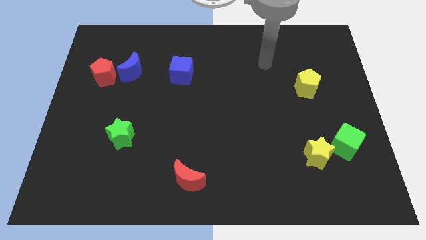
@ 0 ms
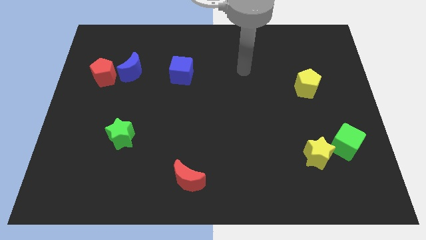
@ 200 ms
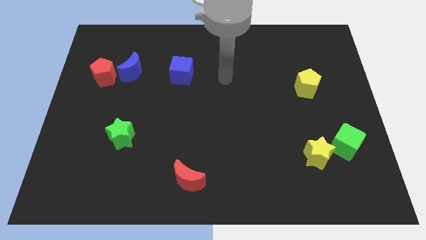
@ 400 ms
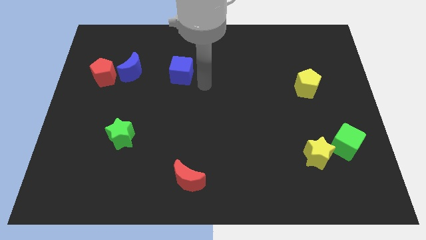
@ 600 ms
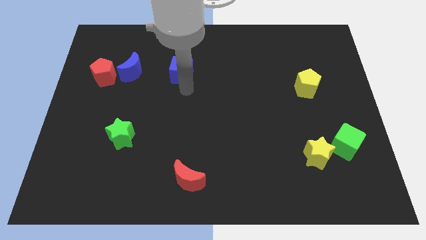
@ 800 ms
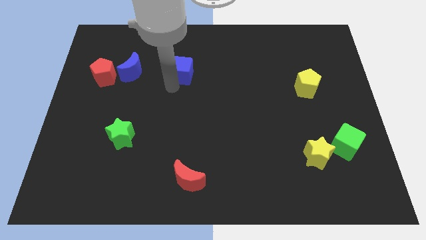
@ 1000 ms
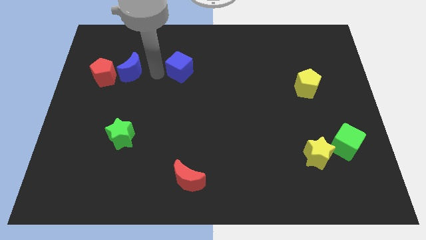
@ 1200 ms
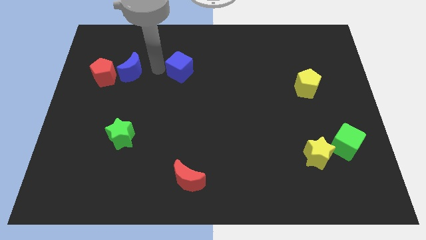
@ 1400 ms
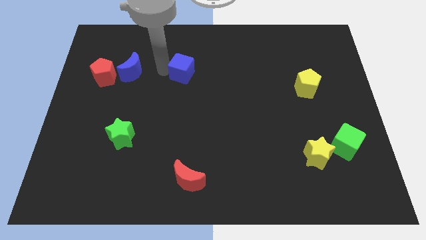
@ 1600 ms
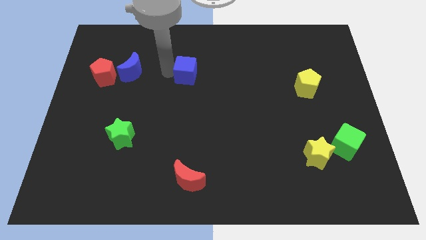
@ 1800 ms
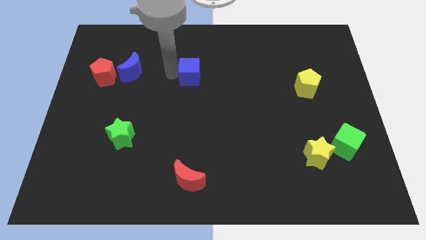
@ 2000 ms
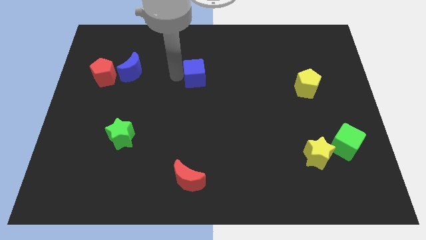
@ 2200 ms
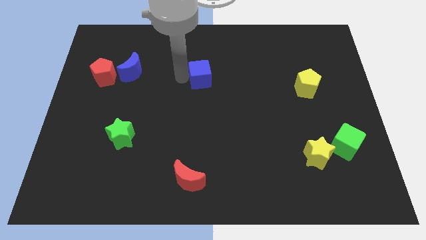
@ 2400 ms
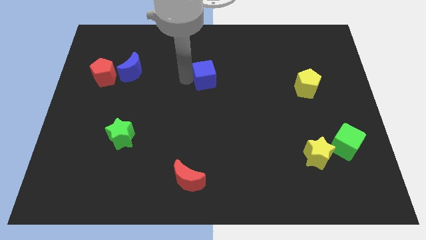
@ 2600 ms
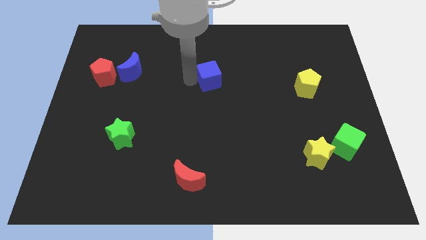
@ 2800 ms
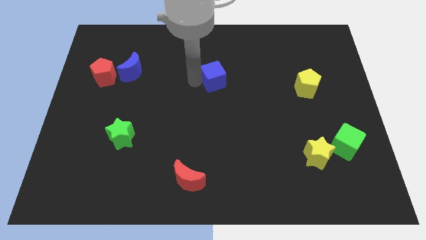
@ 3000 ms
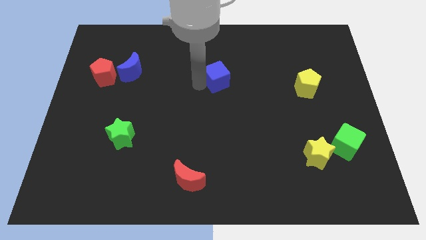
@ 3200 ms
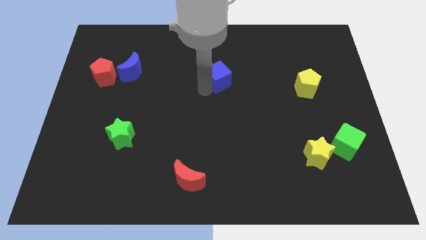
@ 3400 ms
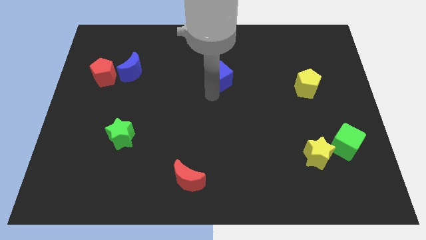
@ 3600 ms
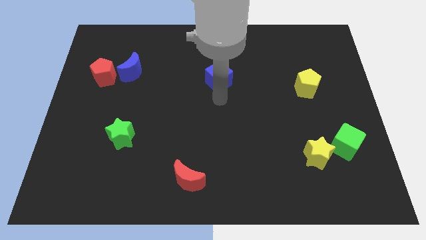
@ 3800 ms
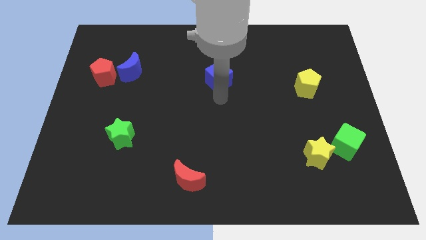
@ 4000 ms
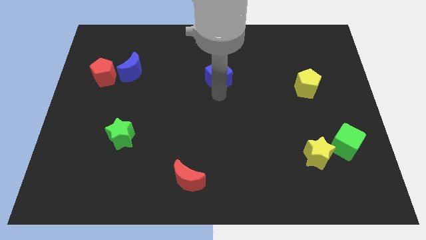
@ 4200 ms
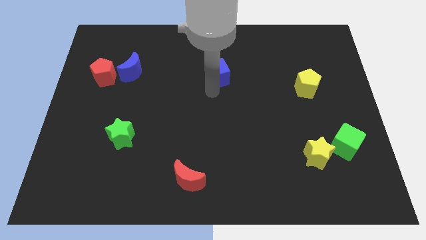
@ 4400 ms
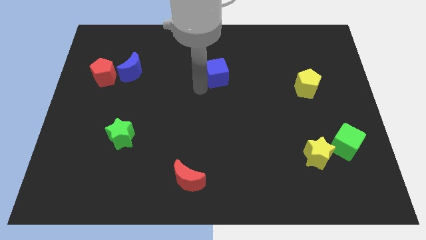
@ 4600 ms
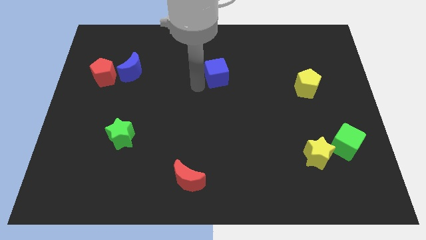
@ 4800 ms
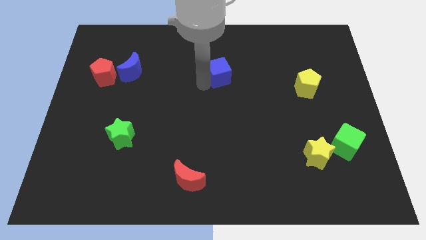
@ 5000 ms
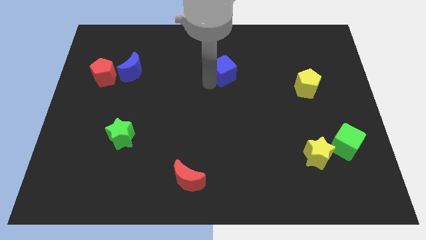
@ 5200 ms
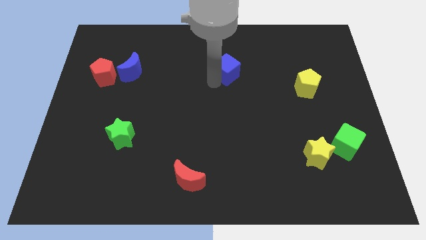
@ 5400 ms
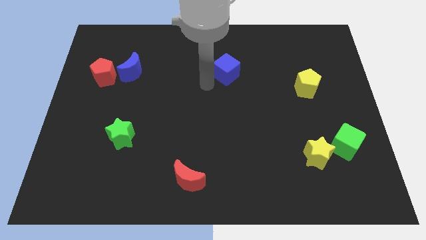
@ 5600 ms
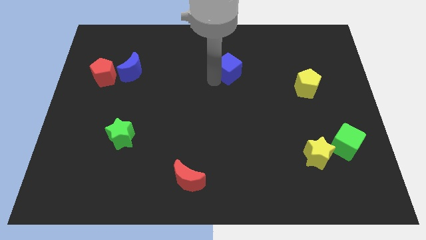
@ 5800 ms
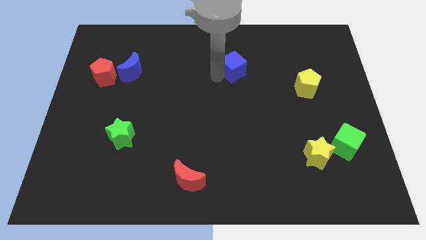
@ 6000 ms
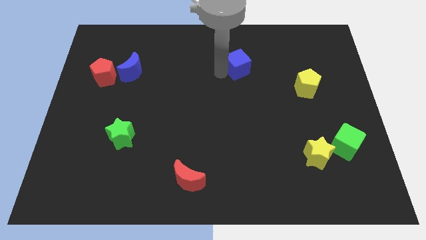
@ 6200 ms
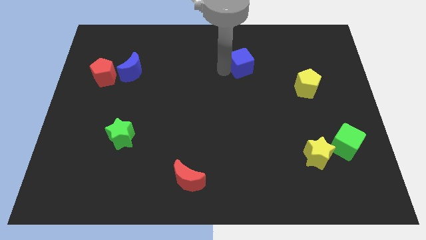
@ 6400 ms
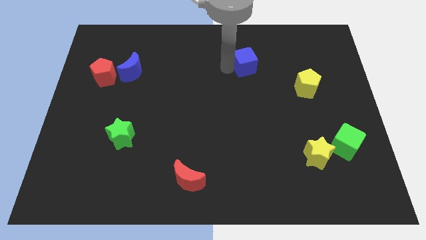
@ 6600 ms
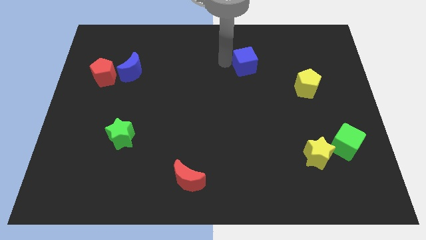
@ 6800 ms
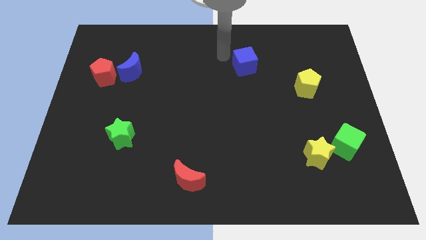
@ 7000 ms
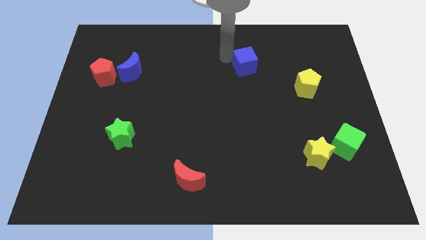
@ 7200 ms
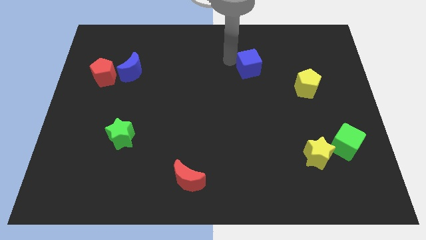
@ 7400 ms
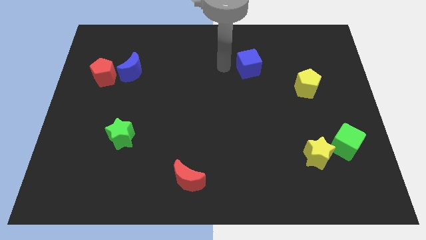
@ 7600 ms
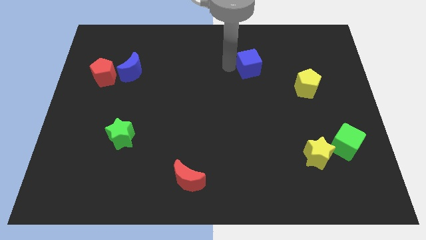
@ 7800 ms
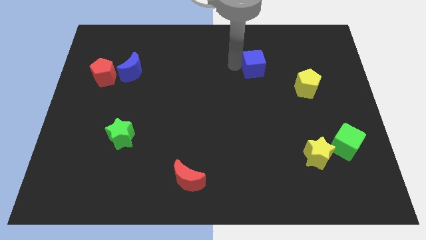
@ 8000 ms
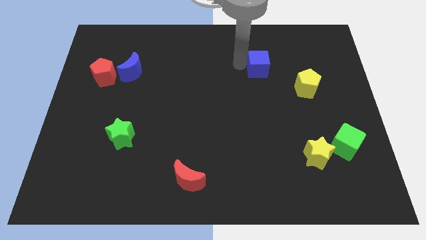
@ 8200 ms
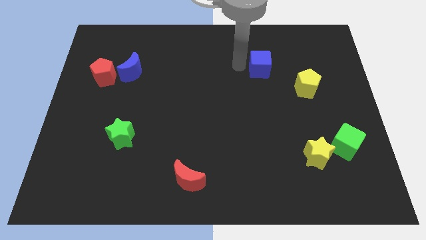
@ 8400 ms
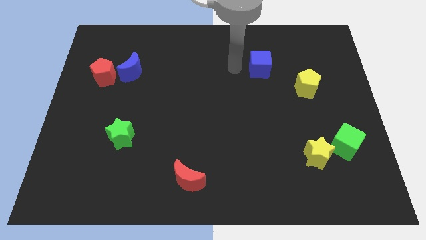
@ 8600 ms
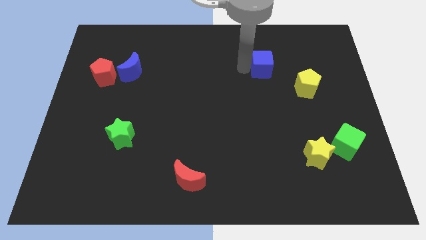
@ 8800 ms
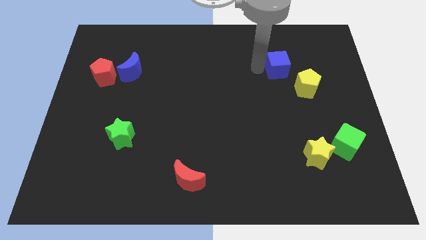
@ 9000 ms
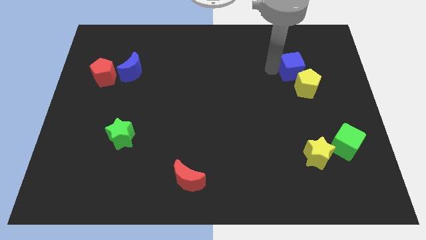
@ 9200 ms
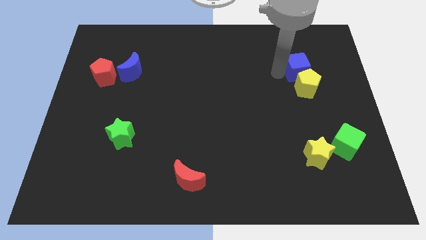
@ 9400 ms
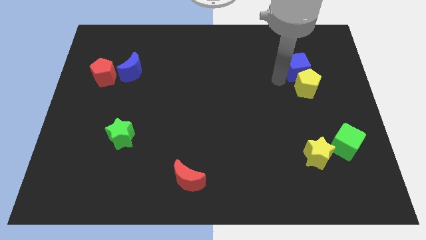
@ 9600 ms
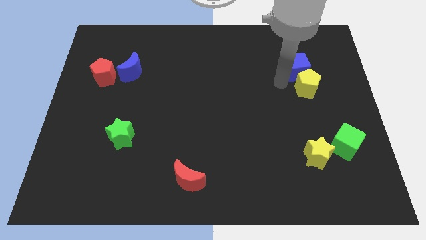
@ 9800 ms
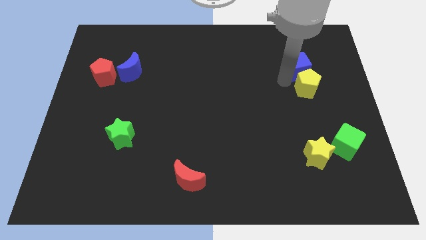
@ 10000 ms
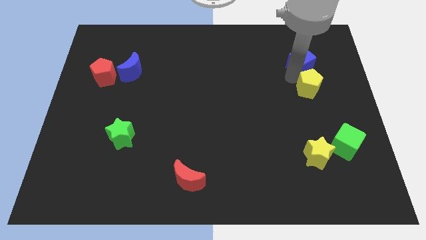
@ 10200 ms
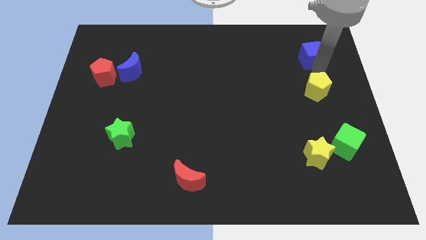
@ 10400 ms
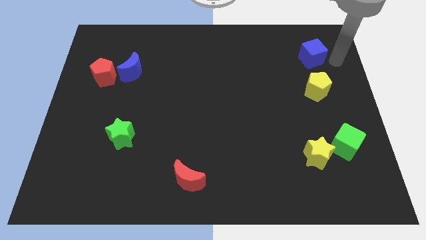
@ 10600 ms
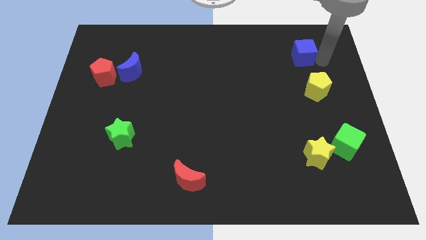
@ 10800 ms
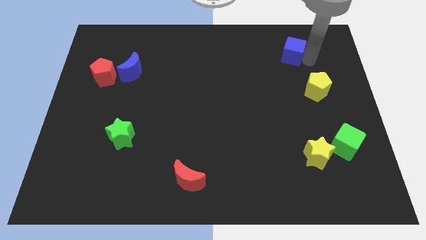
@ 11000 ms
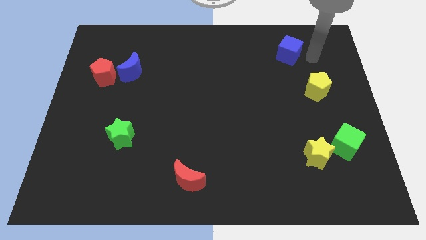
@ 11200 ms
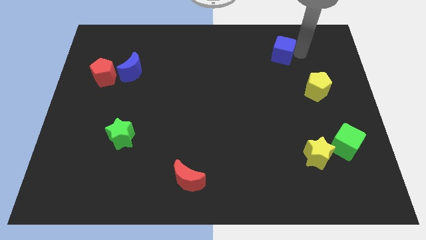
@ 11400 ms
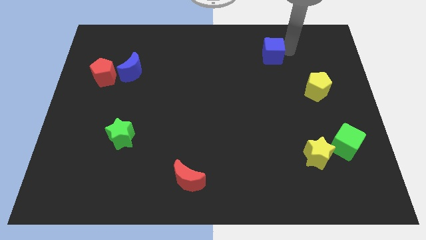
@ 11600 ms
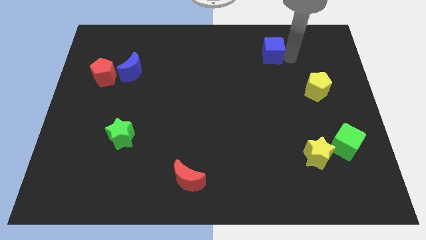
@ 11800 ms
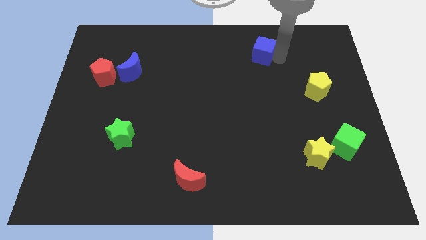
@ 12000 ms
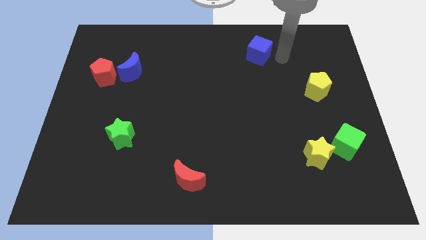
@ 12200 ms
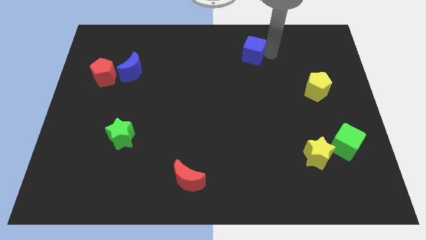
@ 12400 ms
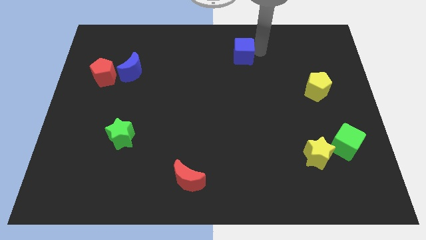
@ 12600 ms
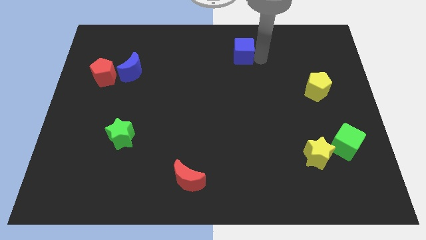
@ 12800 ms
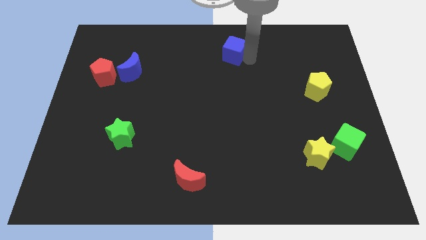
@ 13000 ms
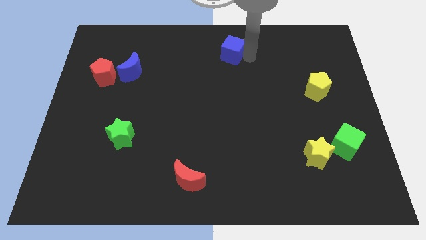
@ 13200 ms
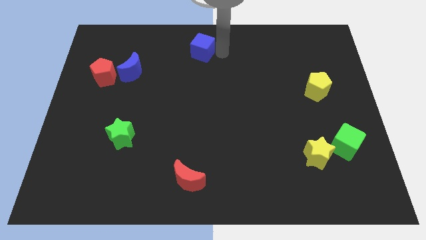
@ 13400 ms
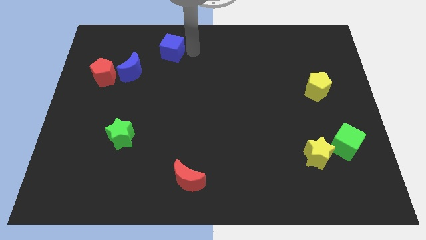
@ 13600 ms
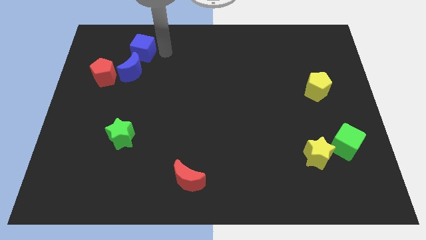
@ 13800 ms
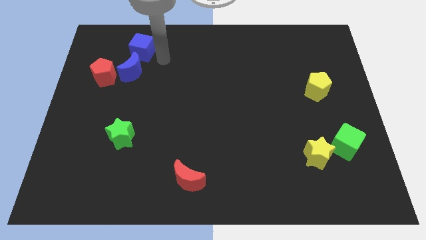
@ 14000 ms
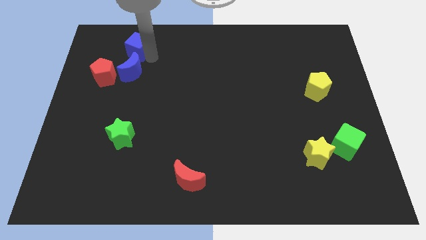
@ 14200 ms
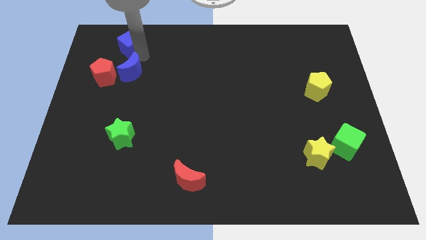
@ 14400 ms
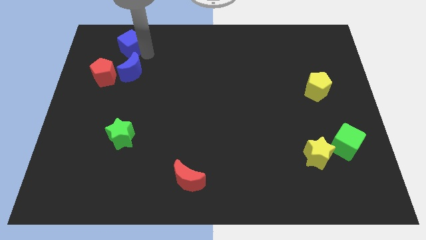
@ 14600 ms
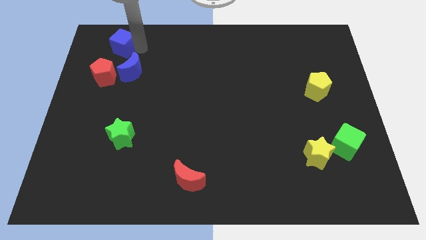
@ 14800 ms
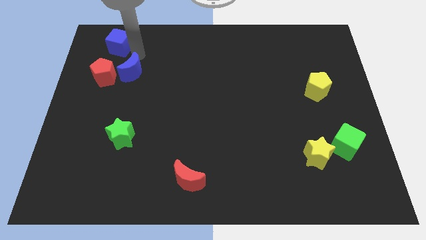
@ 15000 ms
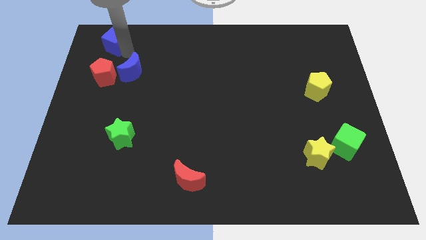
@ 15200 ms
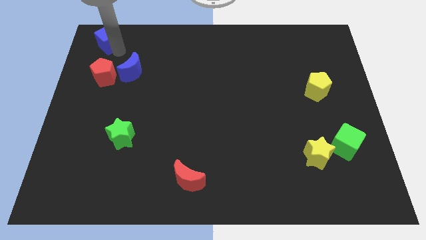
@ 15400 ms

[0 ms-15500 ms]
push the blue cube to the upper left corner
